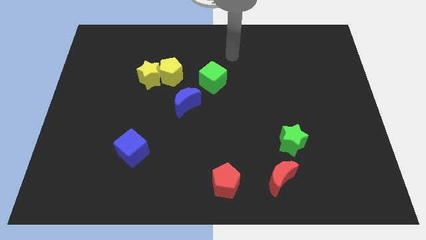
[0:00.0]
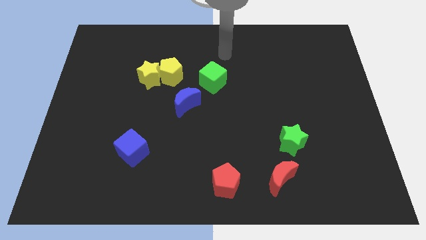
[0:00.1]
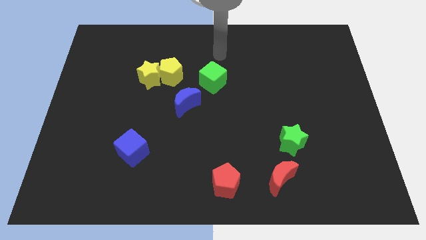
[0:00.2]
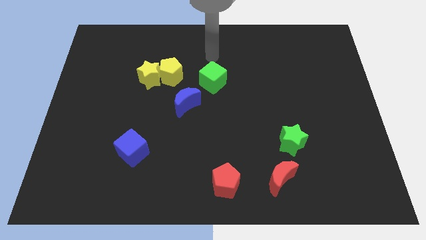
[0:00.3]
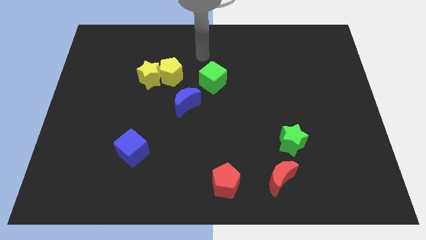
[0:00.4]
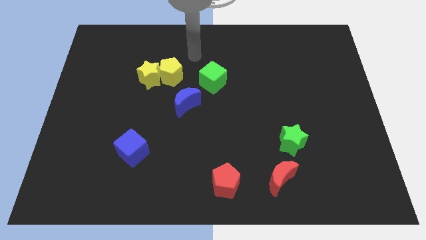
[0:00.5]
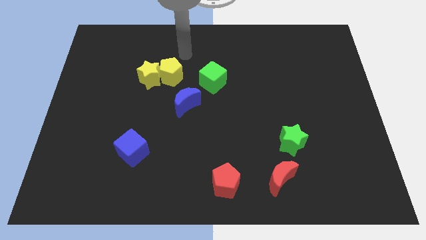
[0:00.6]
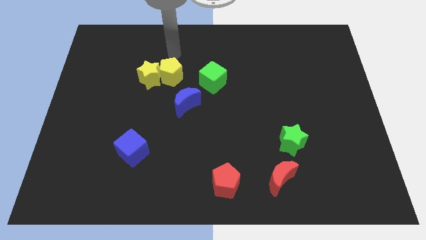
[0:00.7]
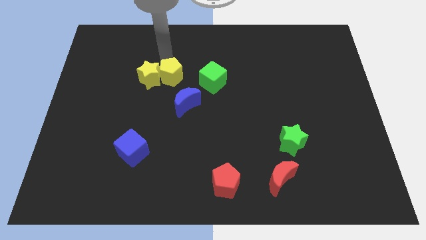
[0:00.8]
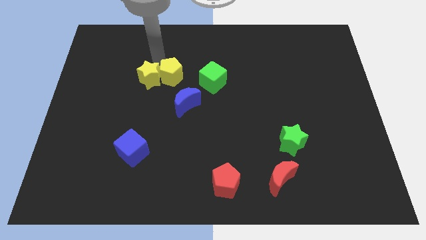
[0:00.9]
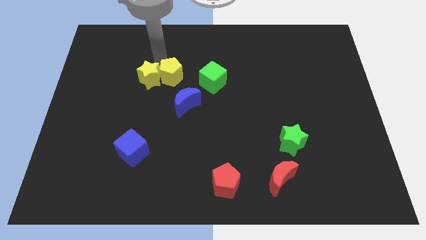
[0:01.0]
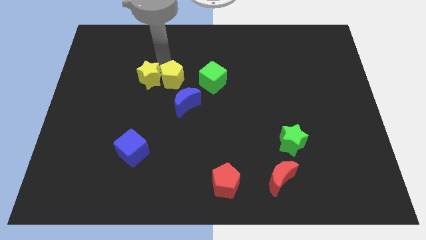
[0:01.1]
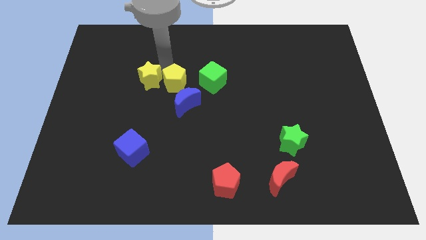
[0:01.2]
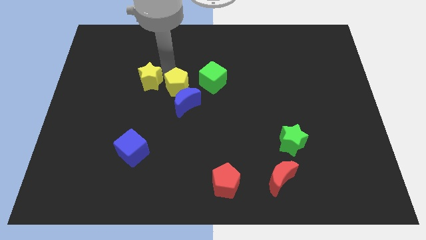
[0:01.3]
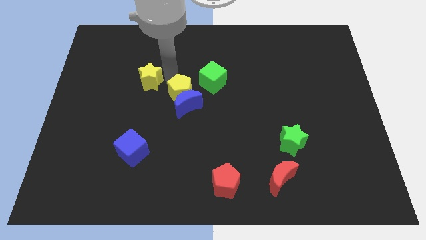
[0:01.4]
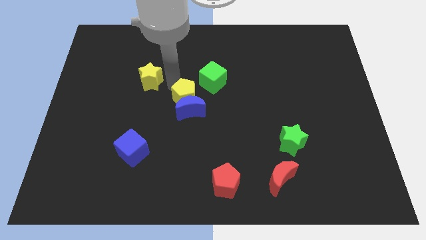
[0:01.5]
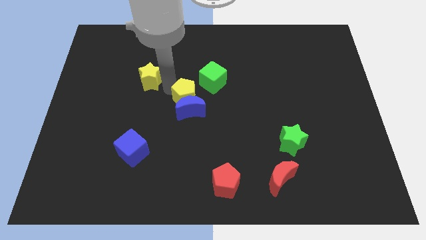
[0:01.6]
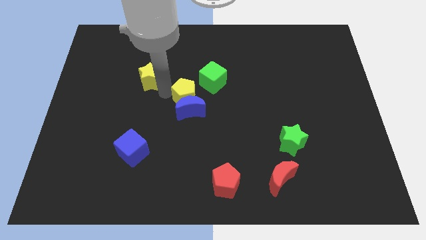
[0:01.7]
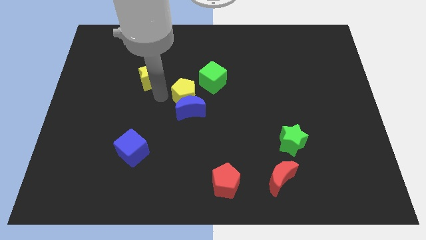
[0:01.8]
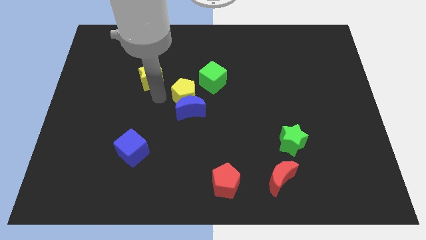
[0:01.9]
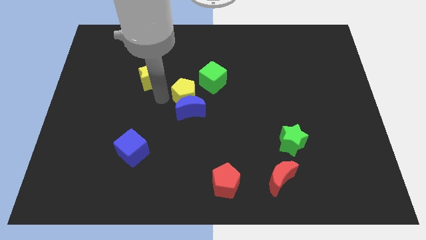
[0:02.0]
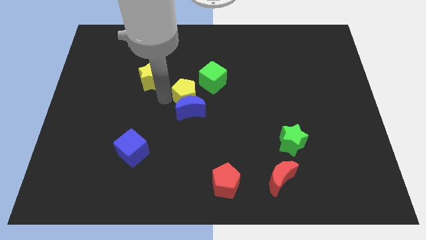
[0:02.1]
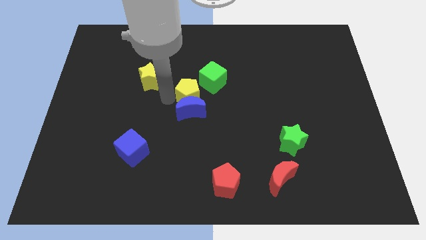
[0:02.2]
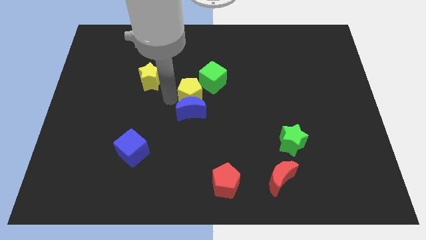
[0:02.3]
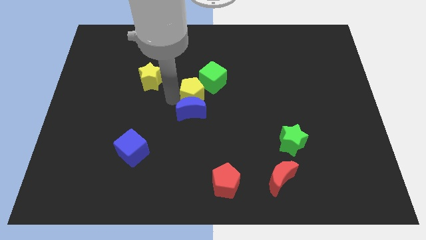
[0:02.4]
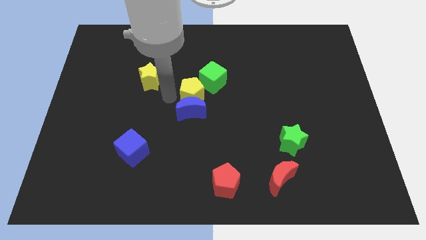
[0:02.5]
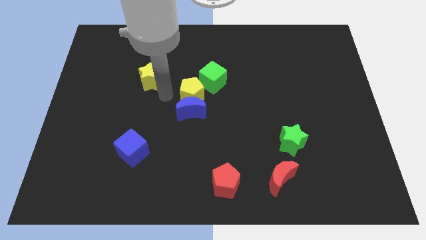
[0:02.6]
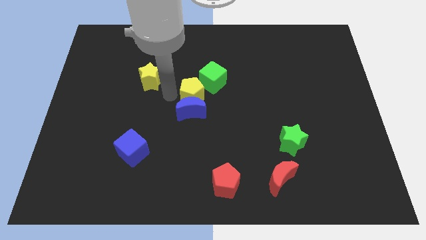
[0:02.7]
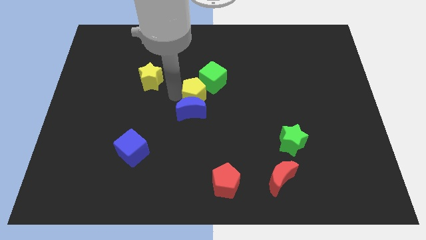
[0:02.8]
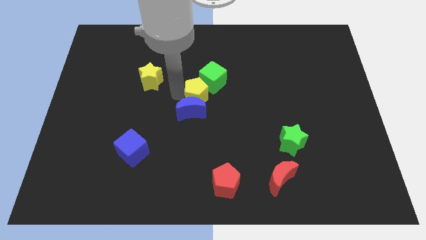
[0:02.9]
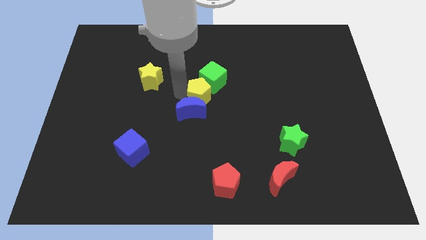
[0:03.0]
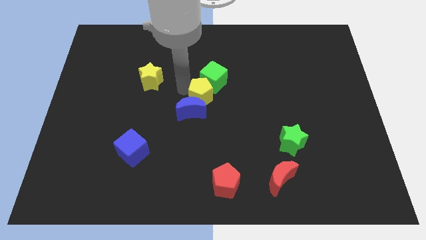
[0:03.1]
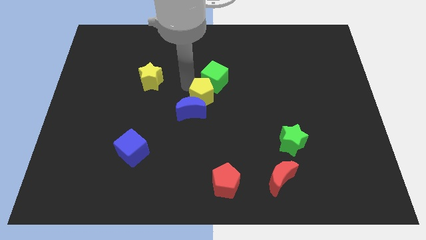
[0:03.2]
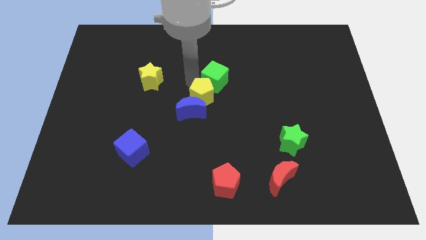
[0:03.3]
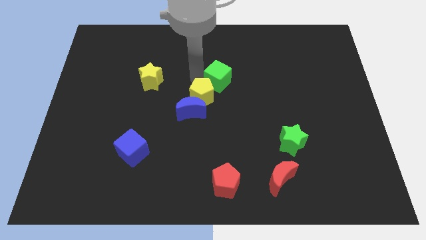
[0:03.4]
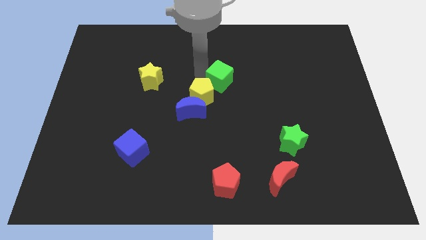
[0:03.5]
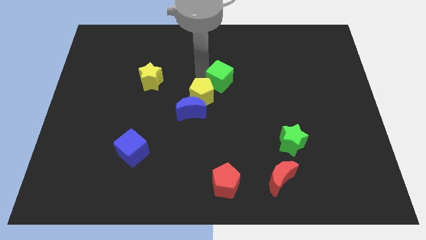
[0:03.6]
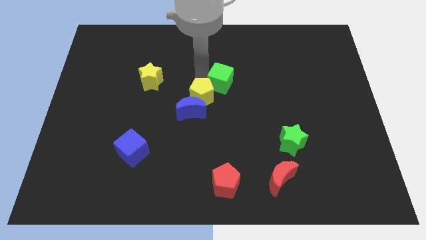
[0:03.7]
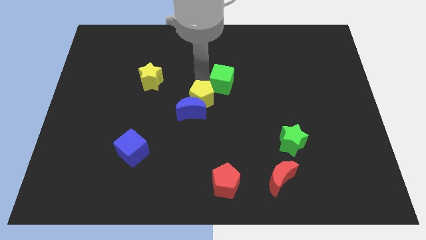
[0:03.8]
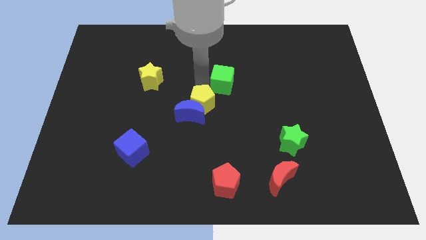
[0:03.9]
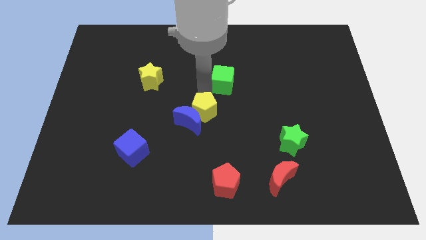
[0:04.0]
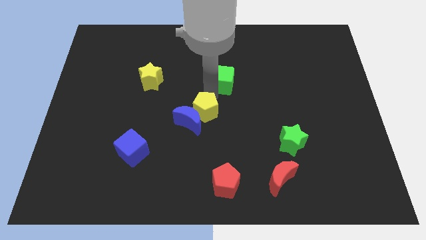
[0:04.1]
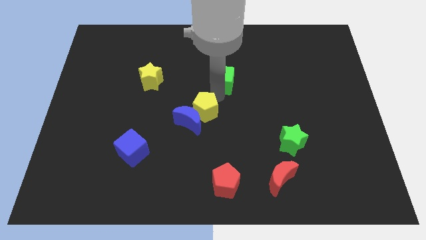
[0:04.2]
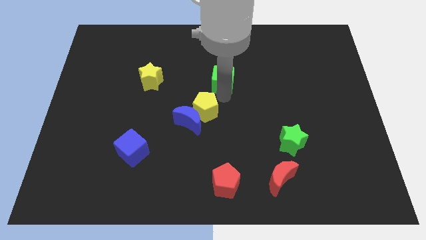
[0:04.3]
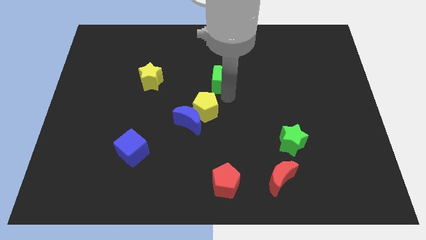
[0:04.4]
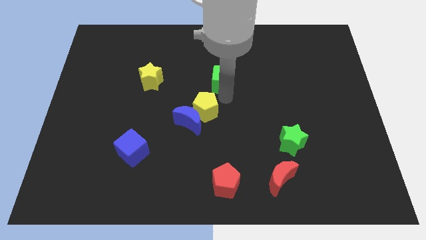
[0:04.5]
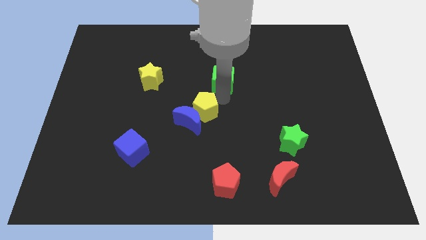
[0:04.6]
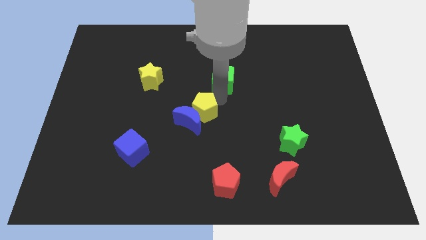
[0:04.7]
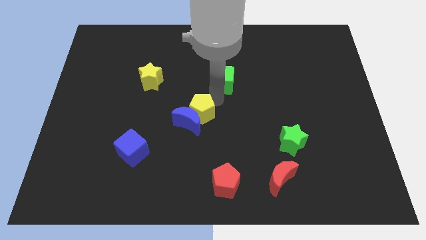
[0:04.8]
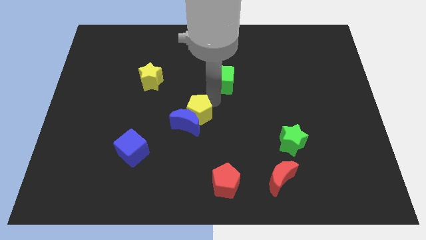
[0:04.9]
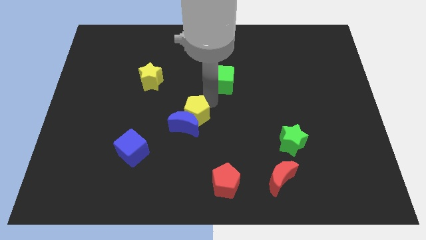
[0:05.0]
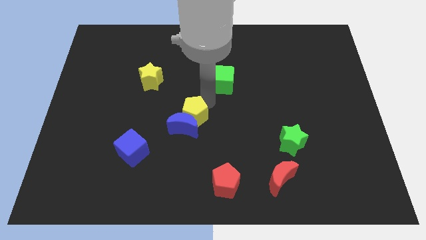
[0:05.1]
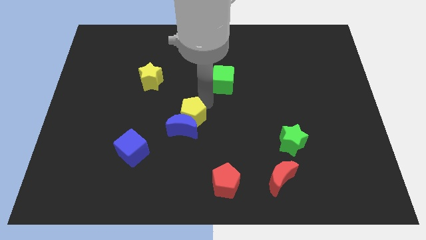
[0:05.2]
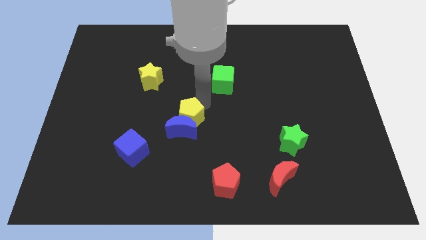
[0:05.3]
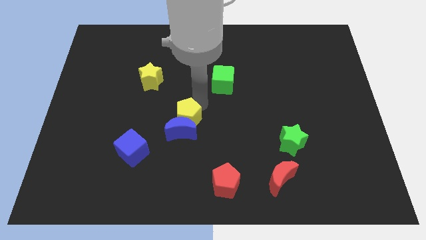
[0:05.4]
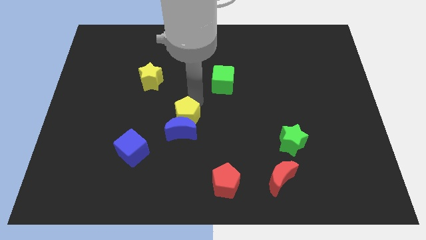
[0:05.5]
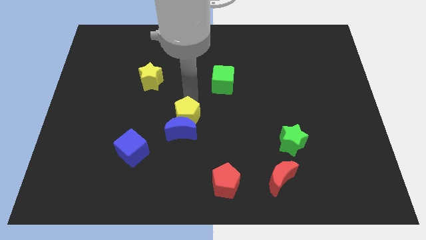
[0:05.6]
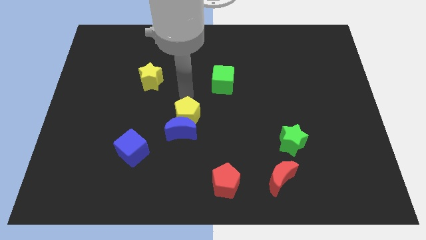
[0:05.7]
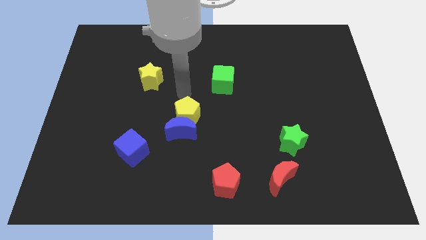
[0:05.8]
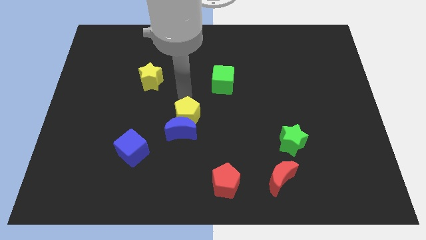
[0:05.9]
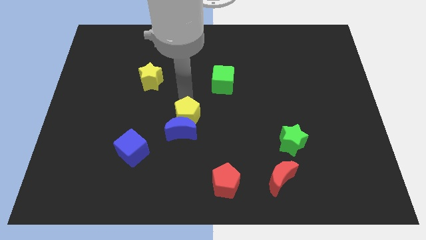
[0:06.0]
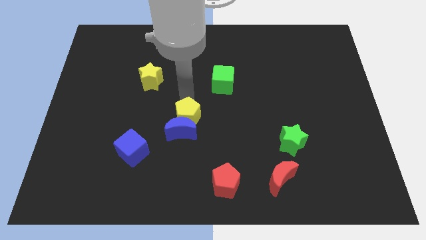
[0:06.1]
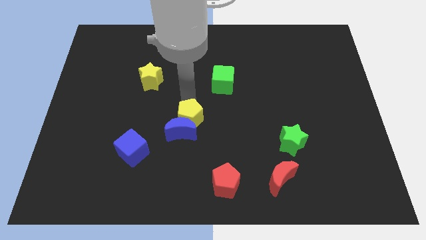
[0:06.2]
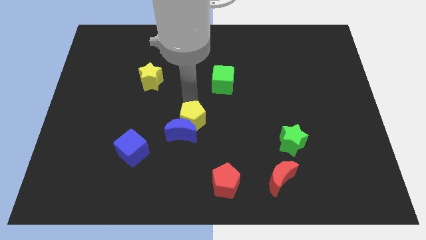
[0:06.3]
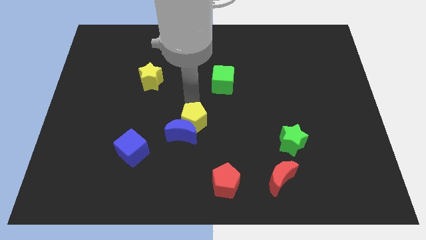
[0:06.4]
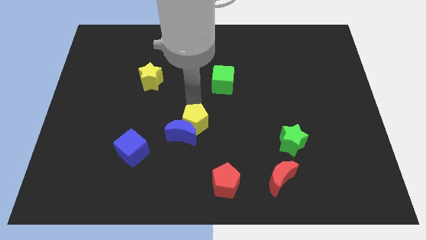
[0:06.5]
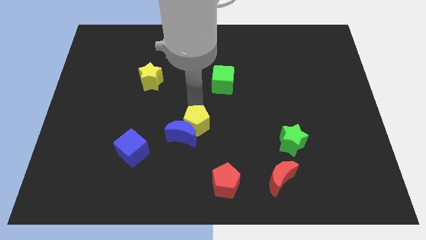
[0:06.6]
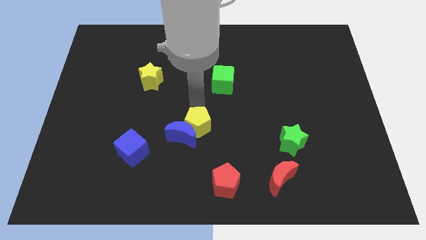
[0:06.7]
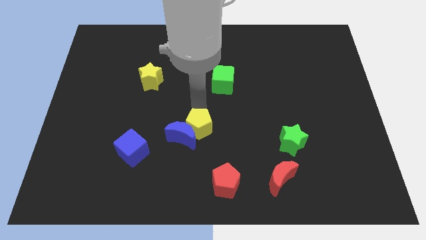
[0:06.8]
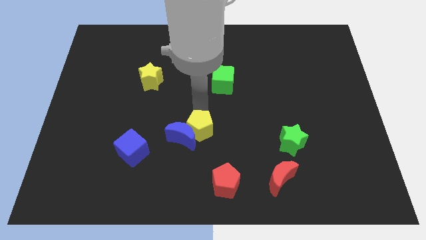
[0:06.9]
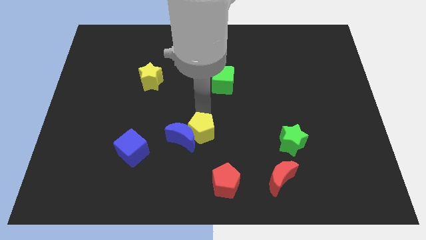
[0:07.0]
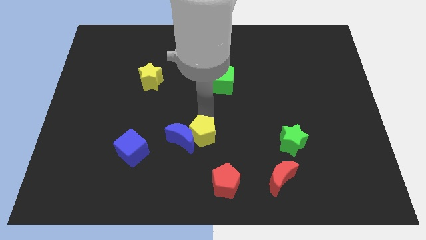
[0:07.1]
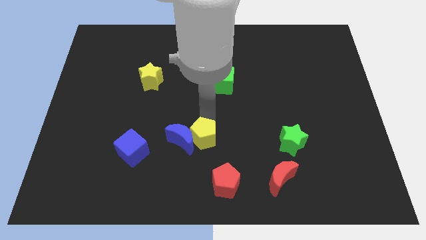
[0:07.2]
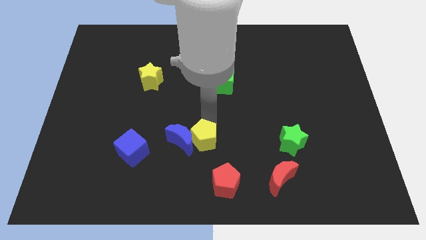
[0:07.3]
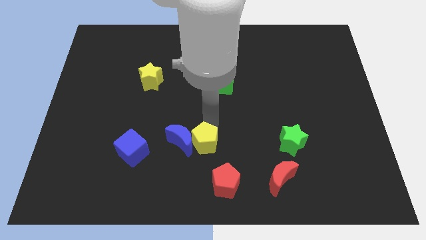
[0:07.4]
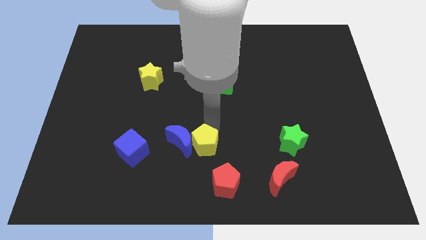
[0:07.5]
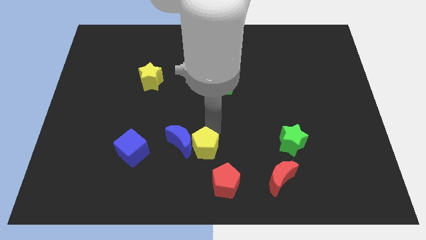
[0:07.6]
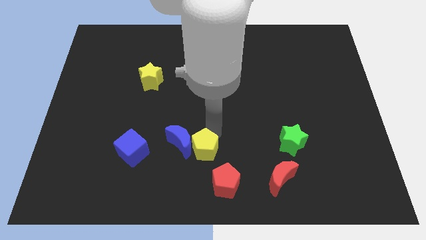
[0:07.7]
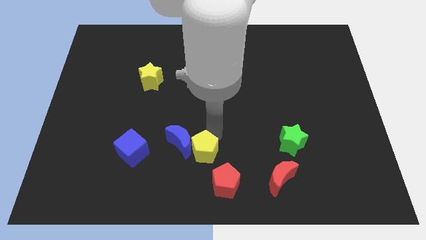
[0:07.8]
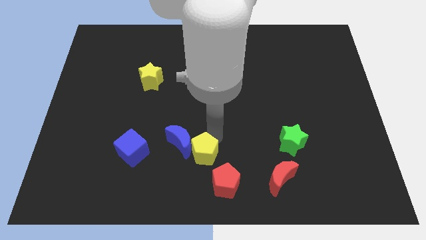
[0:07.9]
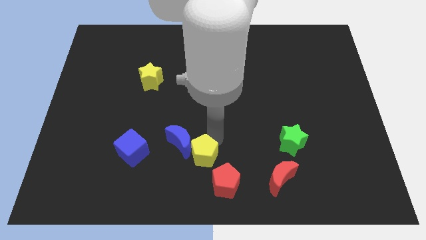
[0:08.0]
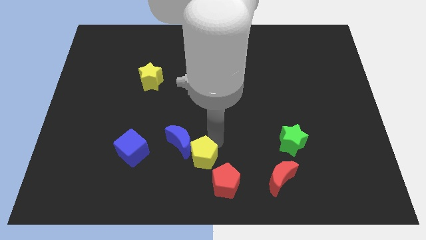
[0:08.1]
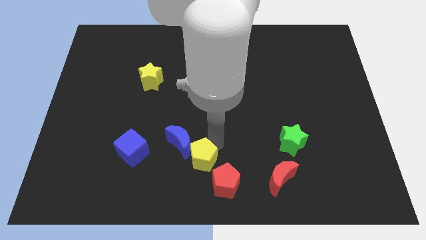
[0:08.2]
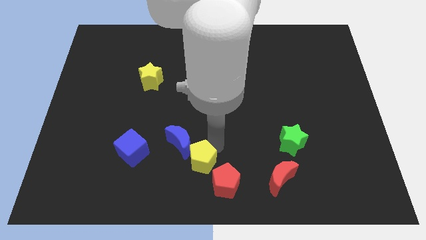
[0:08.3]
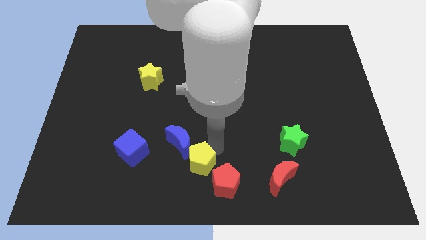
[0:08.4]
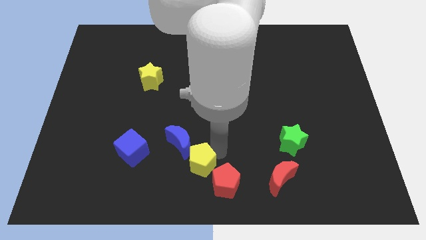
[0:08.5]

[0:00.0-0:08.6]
move the yellow pentagon to the left side of the red pentagon
